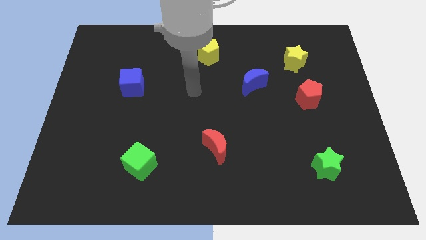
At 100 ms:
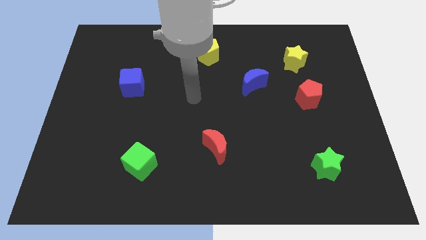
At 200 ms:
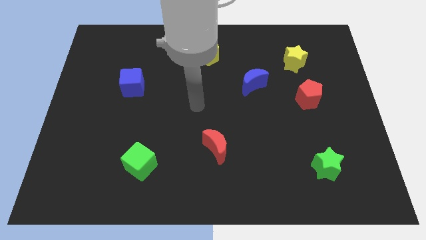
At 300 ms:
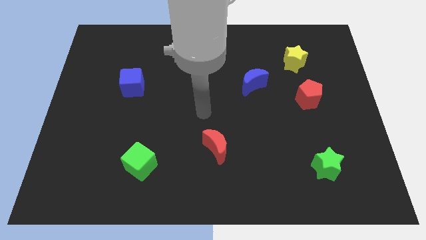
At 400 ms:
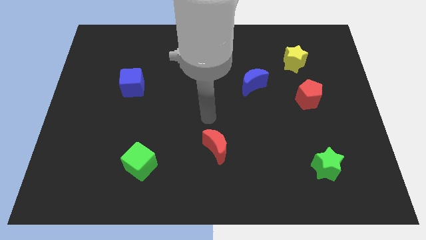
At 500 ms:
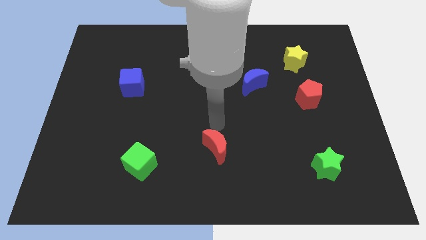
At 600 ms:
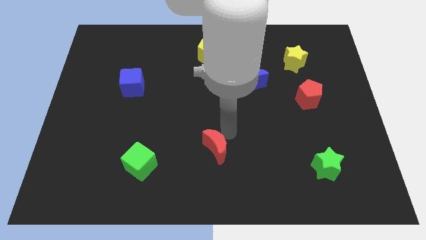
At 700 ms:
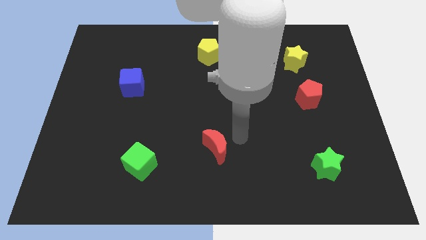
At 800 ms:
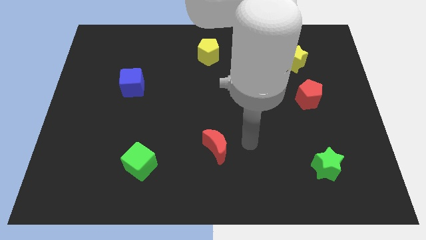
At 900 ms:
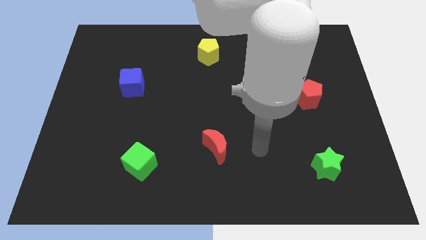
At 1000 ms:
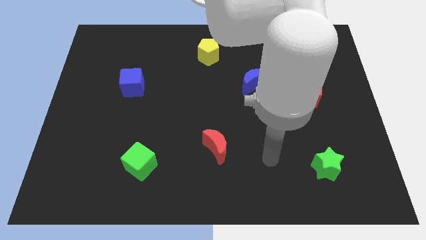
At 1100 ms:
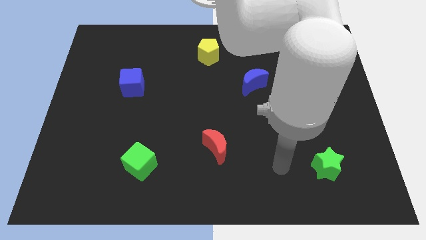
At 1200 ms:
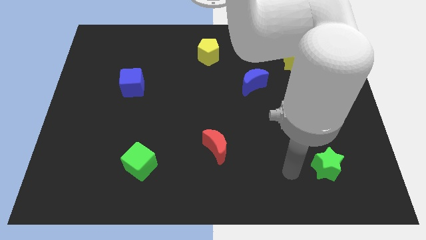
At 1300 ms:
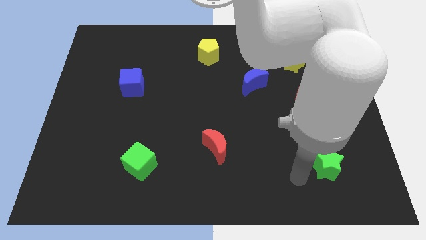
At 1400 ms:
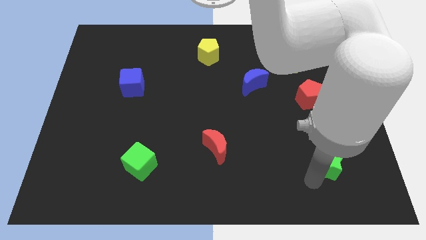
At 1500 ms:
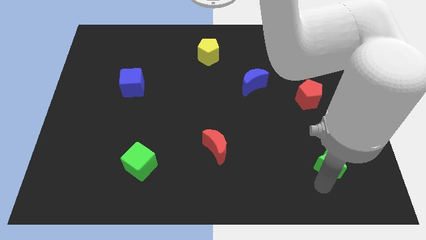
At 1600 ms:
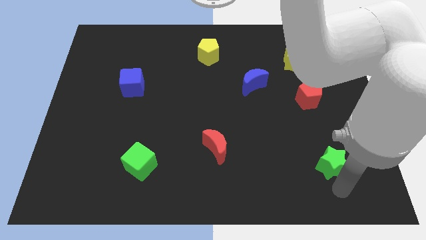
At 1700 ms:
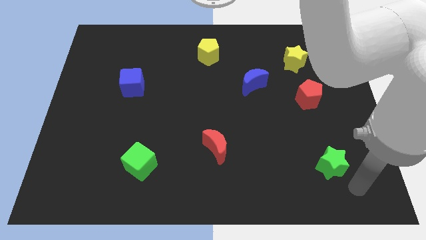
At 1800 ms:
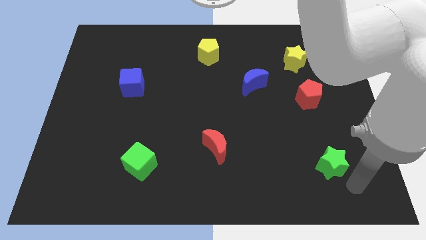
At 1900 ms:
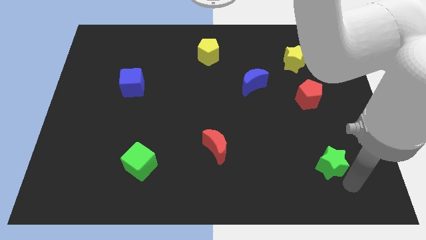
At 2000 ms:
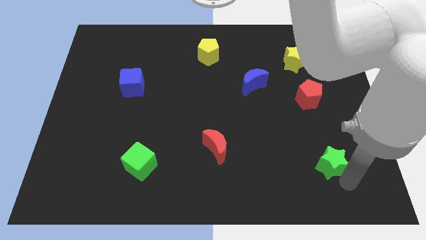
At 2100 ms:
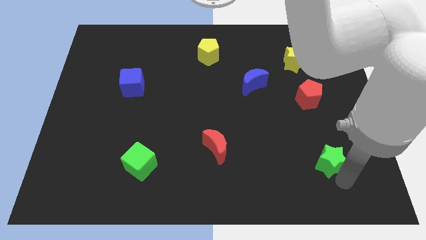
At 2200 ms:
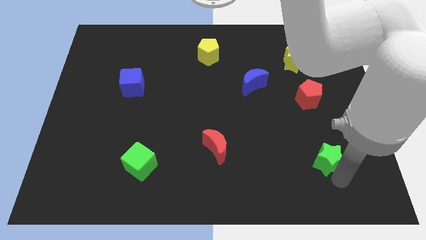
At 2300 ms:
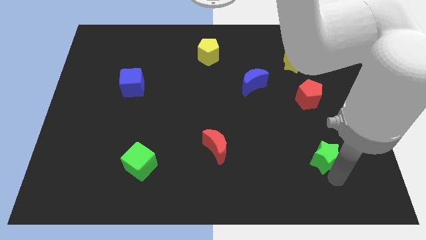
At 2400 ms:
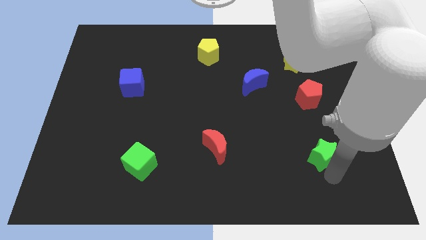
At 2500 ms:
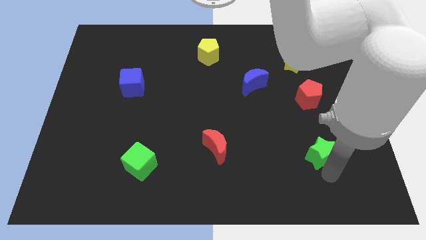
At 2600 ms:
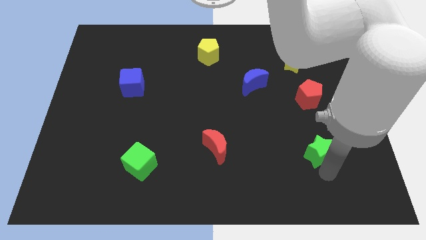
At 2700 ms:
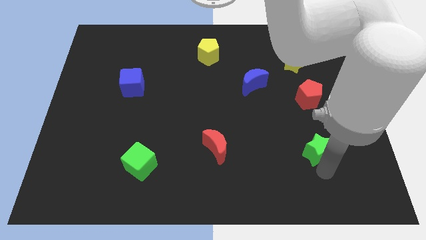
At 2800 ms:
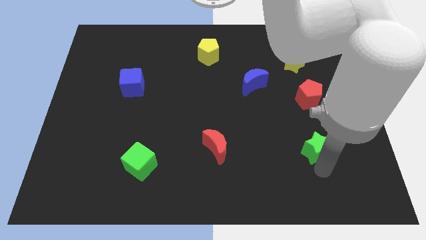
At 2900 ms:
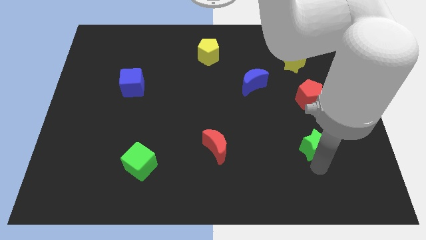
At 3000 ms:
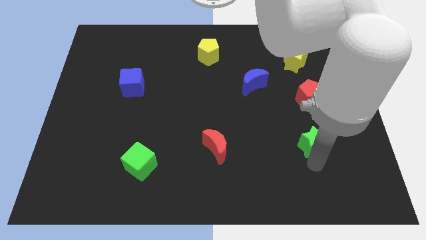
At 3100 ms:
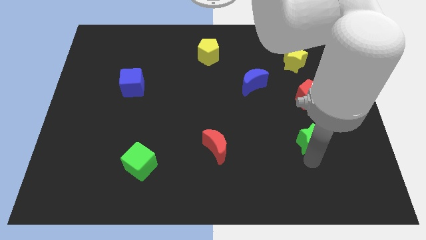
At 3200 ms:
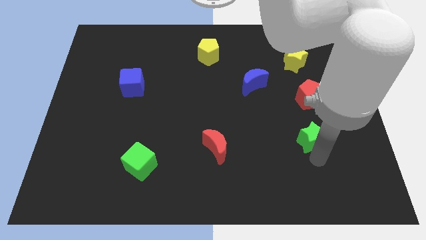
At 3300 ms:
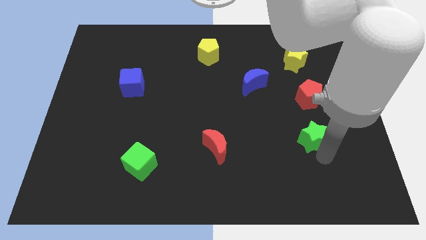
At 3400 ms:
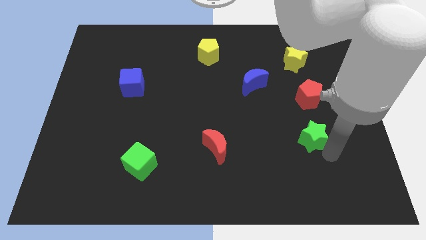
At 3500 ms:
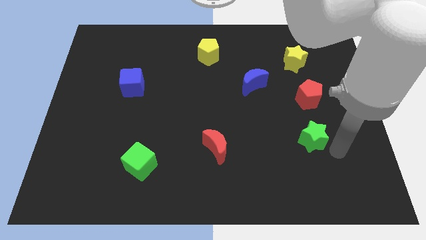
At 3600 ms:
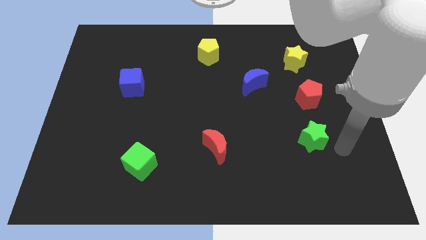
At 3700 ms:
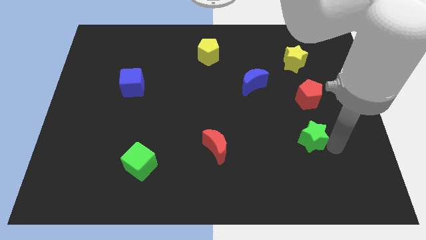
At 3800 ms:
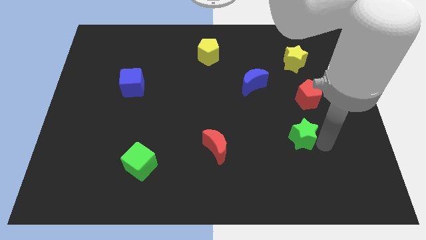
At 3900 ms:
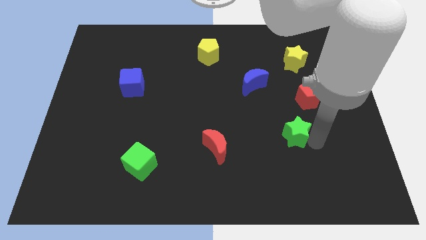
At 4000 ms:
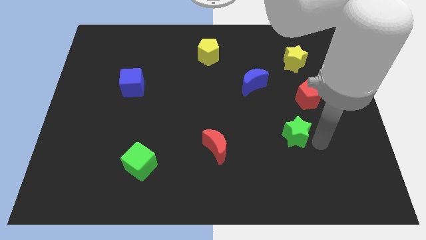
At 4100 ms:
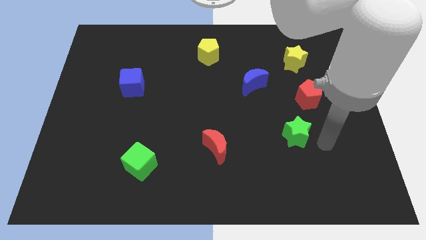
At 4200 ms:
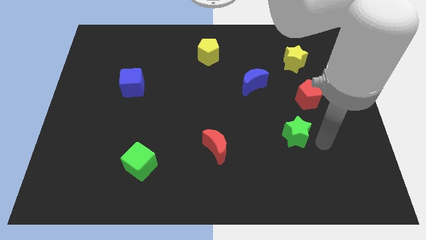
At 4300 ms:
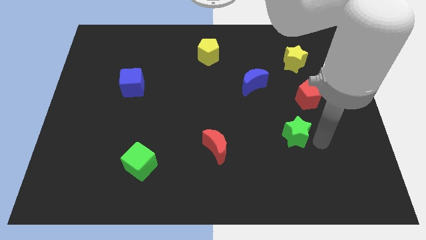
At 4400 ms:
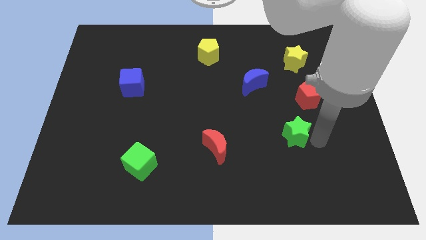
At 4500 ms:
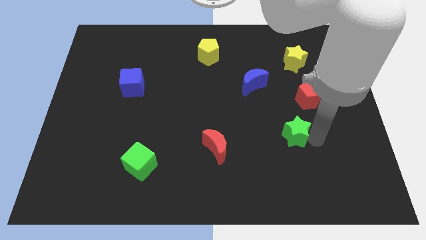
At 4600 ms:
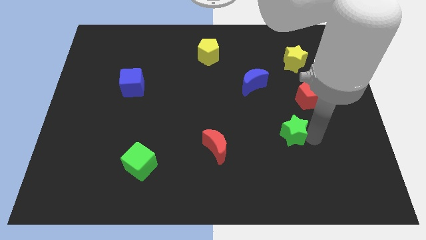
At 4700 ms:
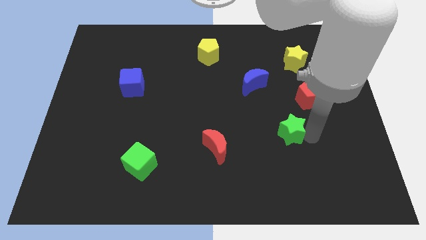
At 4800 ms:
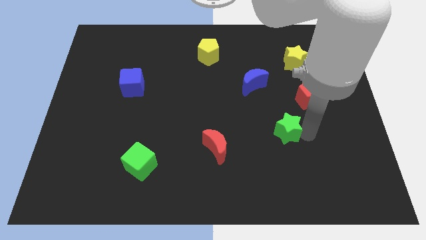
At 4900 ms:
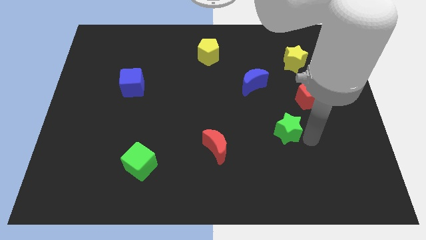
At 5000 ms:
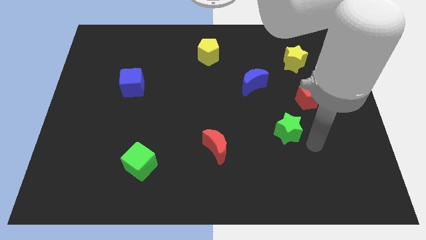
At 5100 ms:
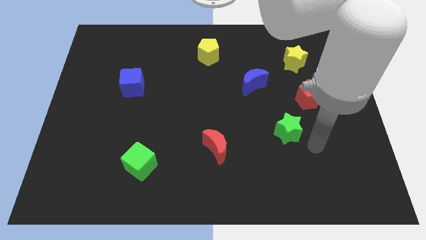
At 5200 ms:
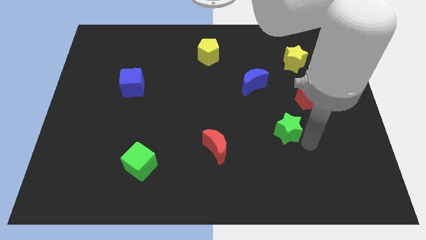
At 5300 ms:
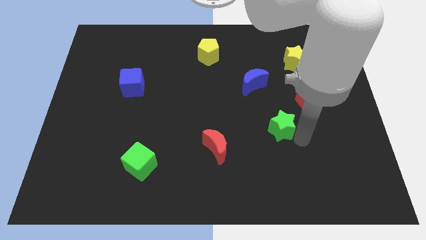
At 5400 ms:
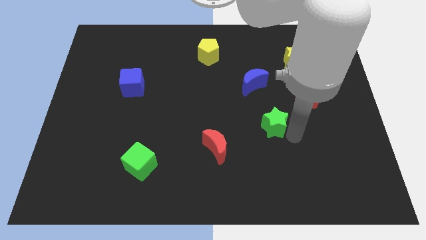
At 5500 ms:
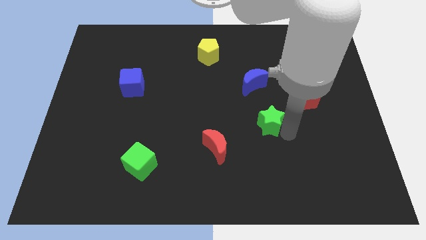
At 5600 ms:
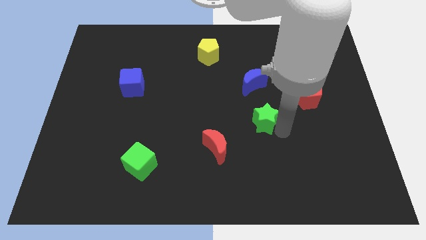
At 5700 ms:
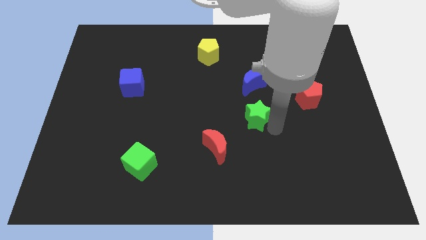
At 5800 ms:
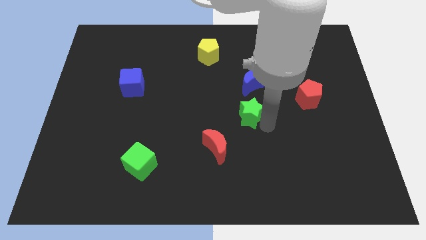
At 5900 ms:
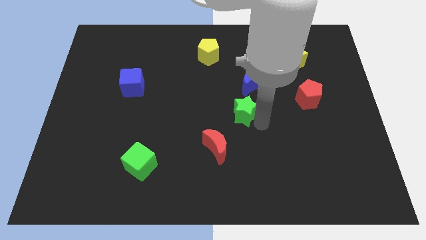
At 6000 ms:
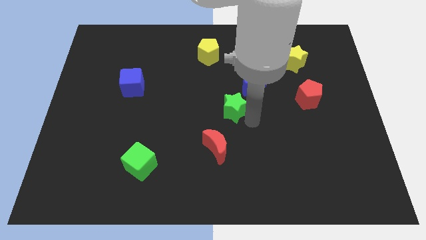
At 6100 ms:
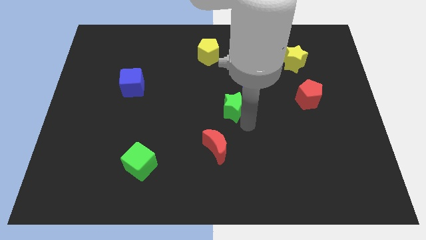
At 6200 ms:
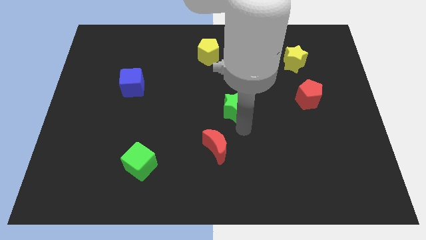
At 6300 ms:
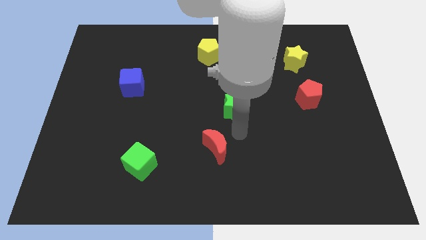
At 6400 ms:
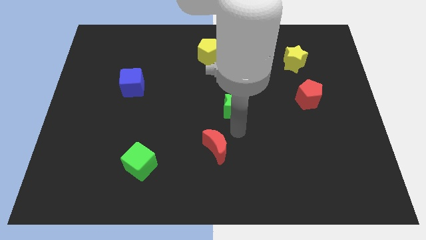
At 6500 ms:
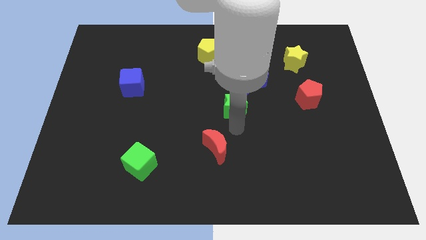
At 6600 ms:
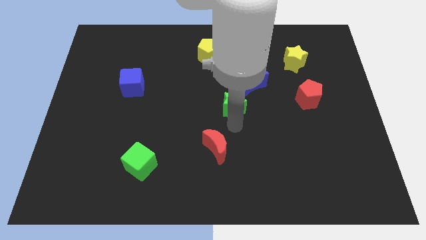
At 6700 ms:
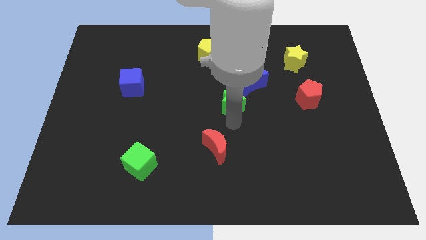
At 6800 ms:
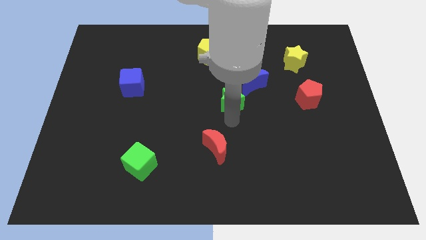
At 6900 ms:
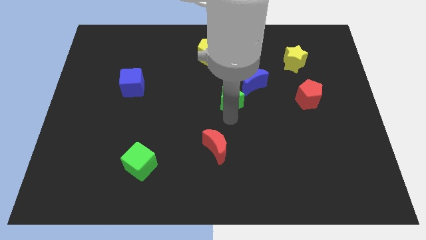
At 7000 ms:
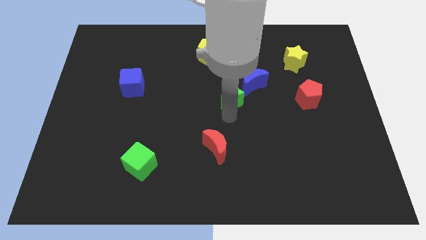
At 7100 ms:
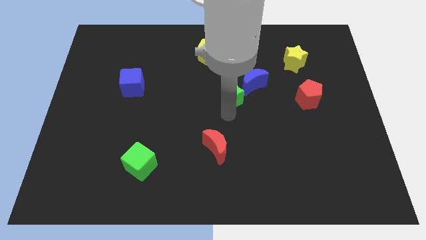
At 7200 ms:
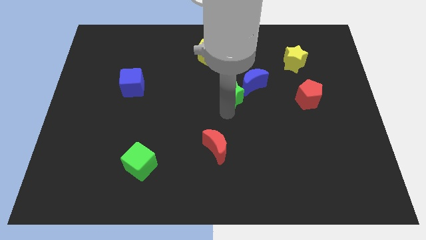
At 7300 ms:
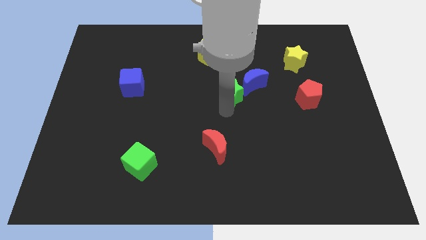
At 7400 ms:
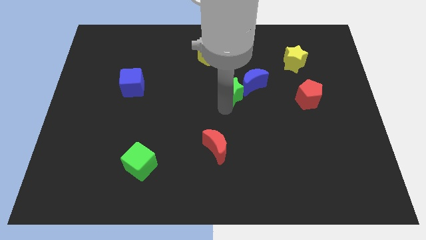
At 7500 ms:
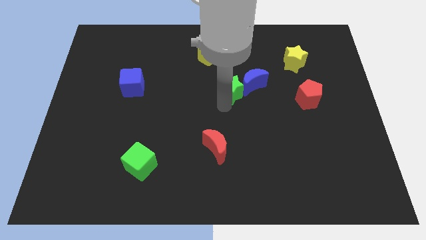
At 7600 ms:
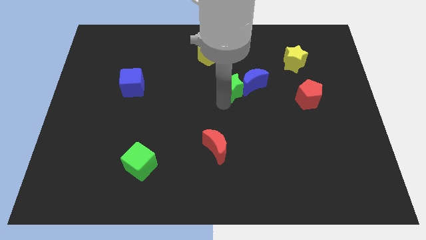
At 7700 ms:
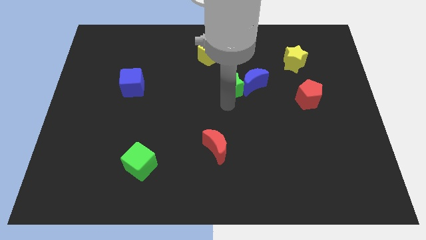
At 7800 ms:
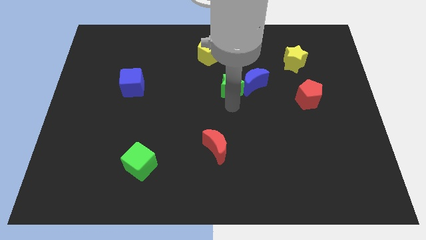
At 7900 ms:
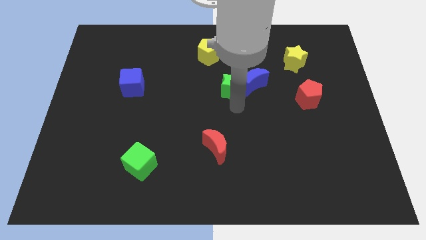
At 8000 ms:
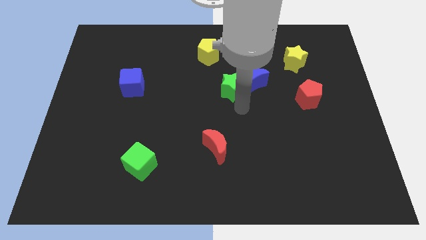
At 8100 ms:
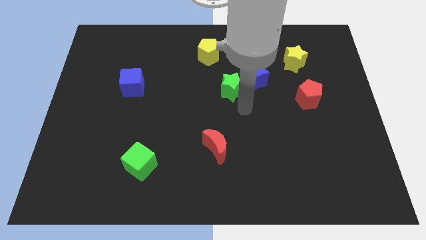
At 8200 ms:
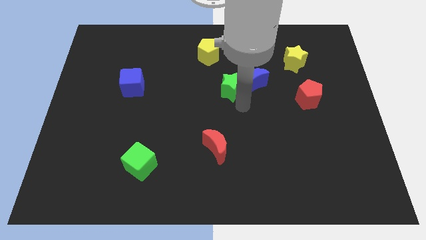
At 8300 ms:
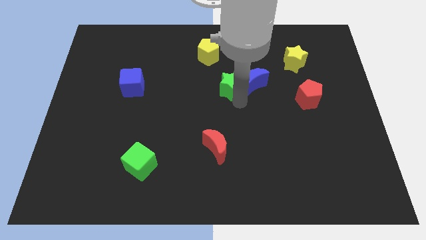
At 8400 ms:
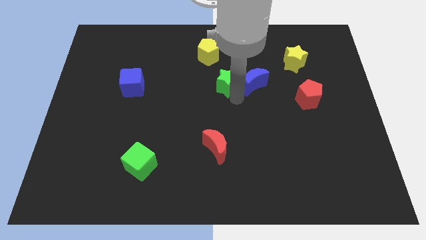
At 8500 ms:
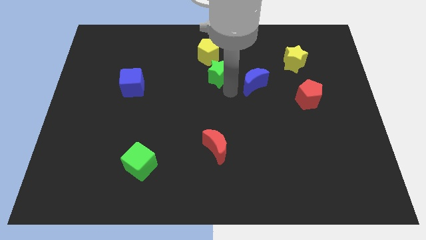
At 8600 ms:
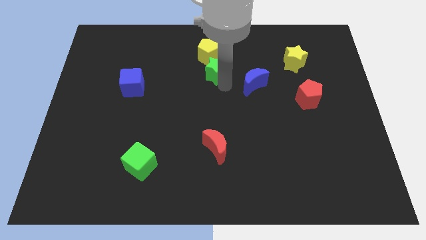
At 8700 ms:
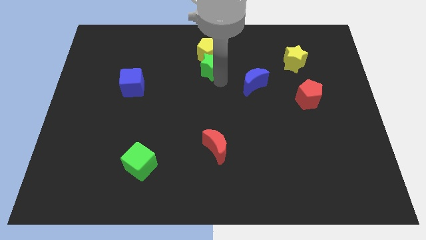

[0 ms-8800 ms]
move the green star close to the yellow pentagon
